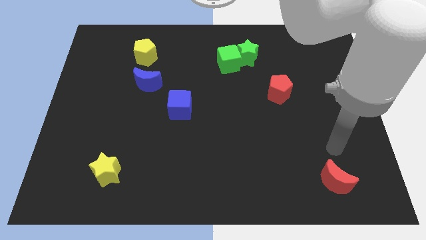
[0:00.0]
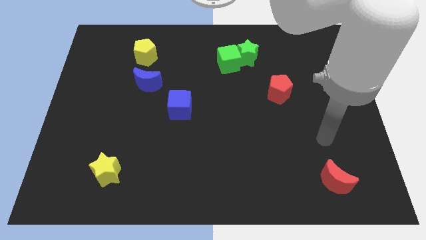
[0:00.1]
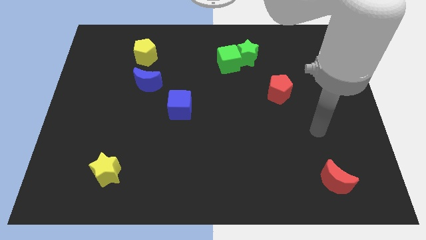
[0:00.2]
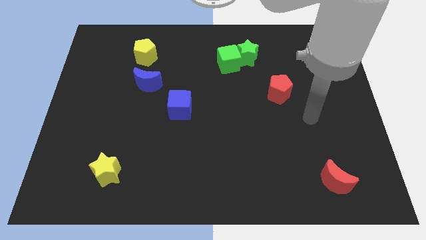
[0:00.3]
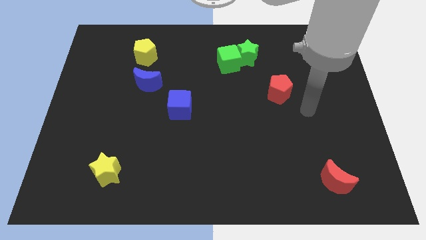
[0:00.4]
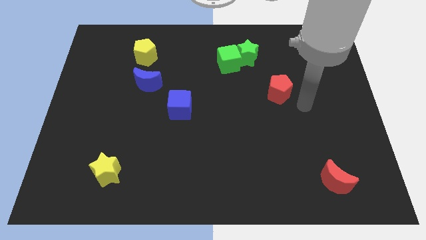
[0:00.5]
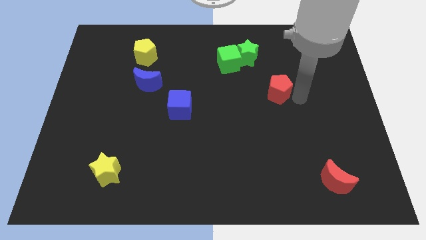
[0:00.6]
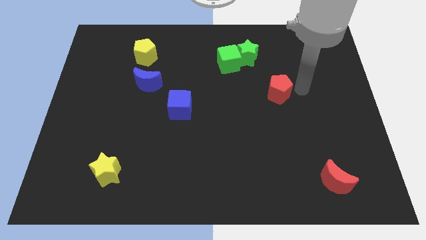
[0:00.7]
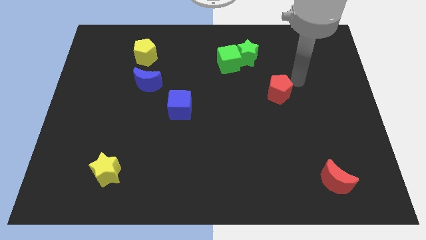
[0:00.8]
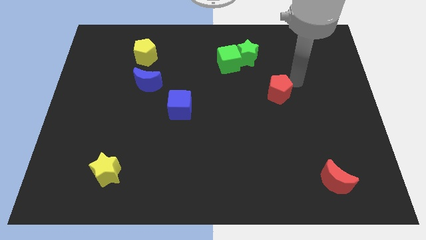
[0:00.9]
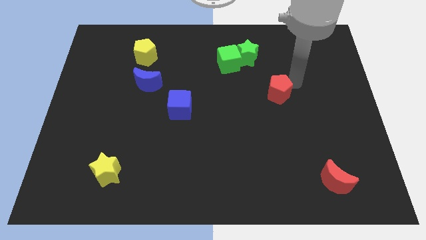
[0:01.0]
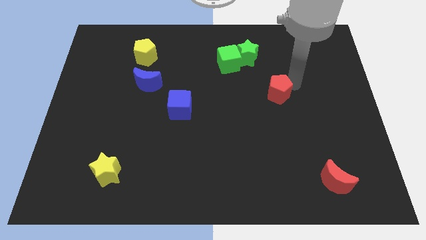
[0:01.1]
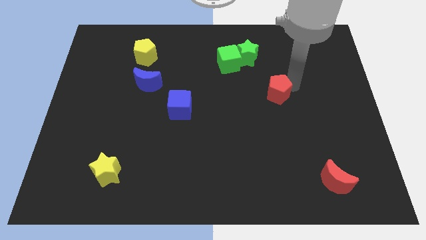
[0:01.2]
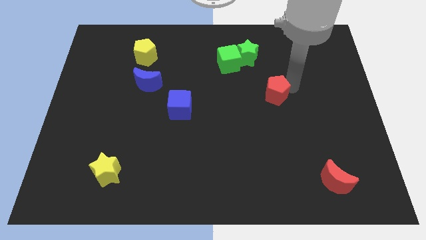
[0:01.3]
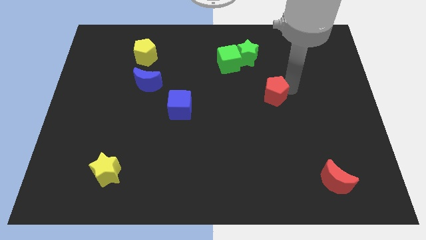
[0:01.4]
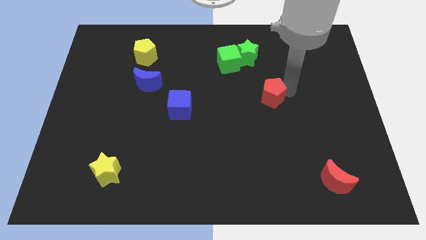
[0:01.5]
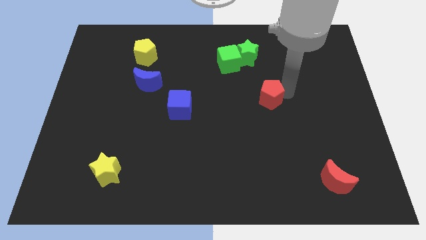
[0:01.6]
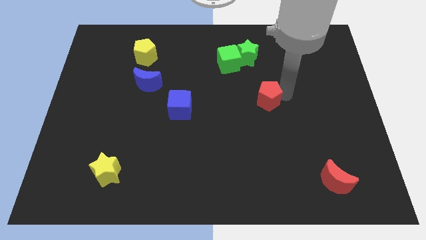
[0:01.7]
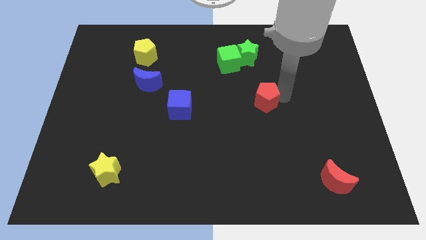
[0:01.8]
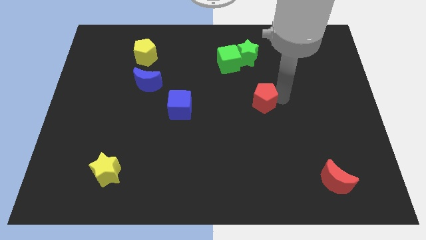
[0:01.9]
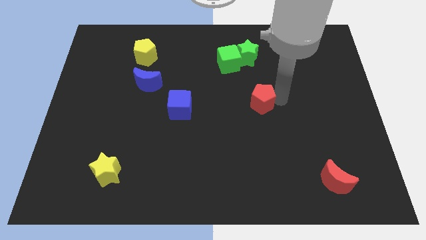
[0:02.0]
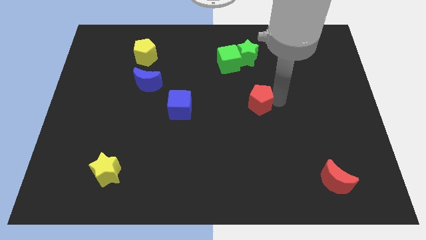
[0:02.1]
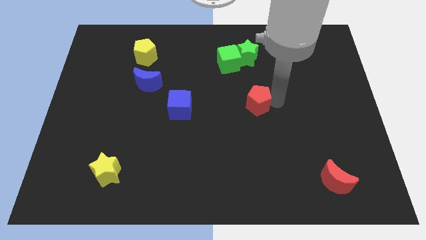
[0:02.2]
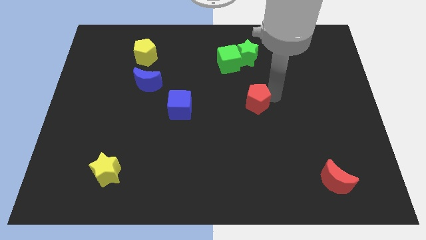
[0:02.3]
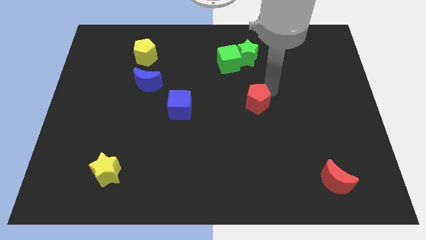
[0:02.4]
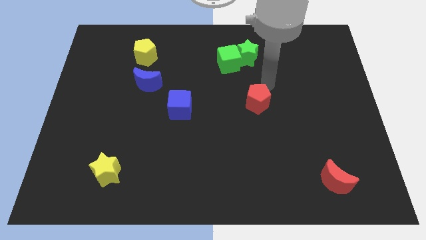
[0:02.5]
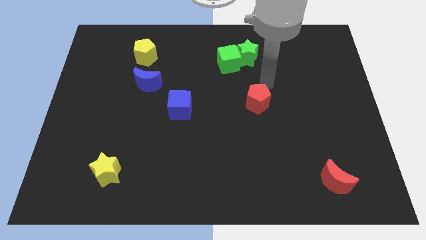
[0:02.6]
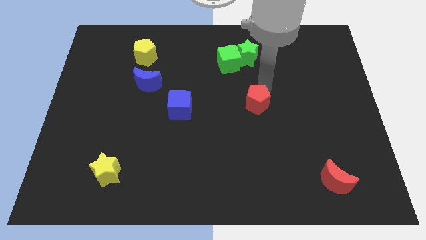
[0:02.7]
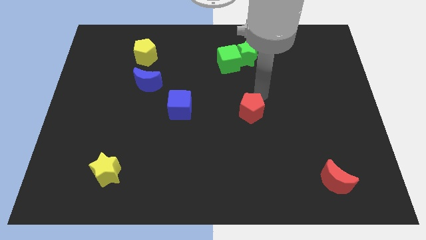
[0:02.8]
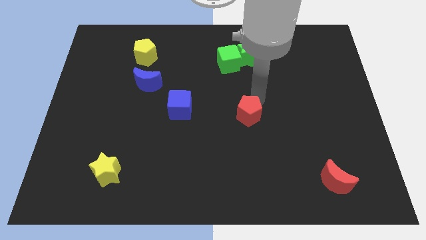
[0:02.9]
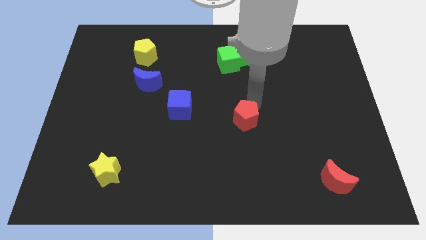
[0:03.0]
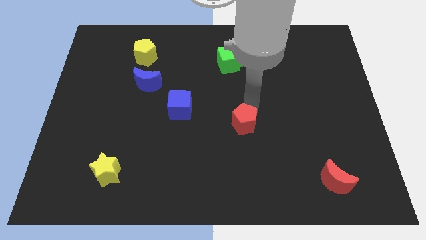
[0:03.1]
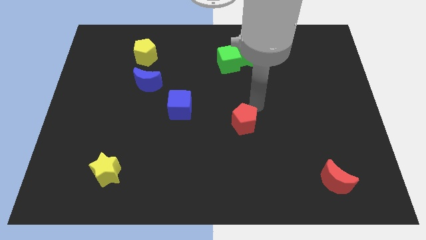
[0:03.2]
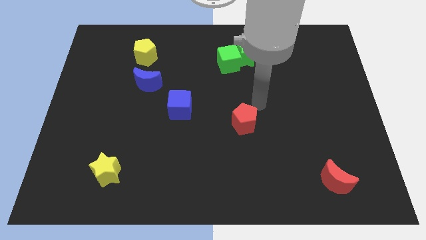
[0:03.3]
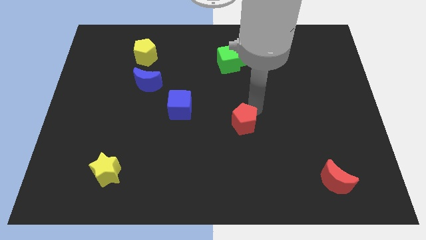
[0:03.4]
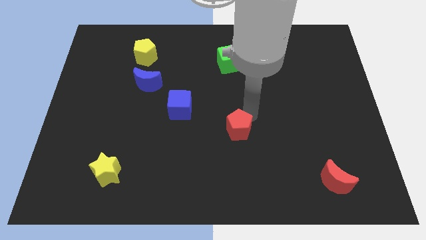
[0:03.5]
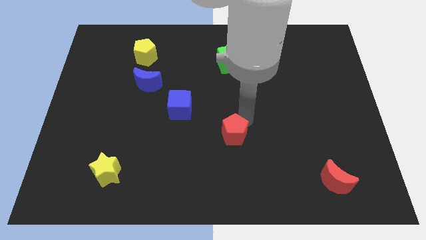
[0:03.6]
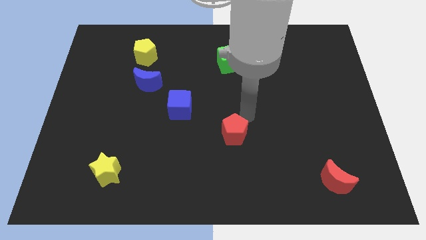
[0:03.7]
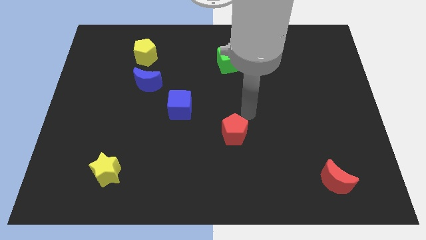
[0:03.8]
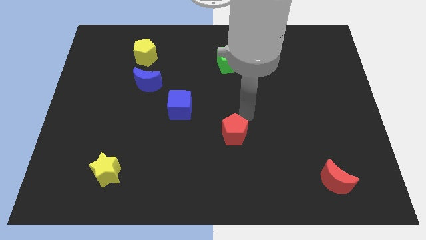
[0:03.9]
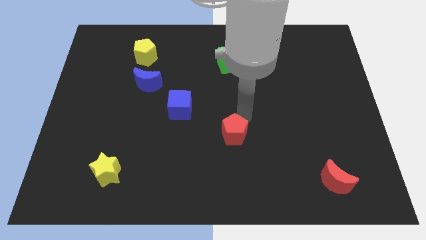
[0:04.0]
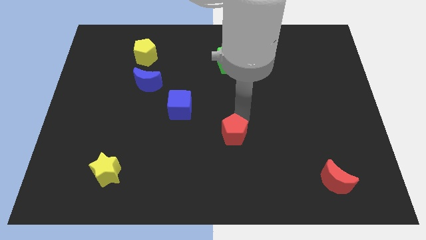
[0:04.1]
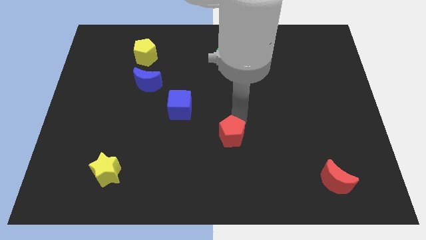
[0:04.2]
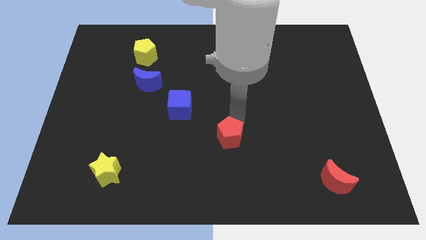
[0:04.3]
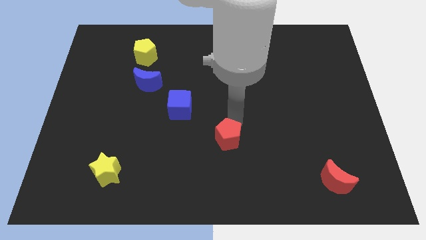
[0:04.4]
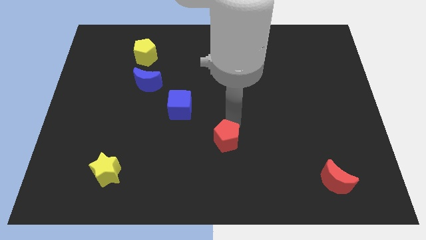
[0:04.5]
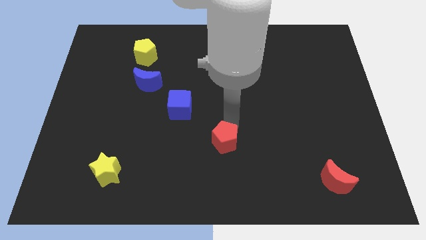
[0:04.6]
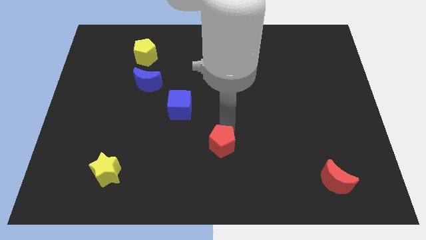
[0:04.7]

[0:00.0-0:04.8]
slide the red pentagon diagonally down and left

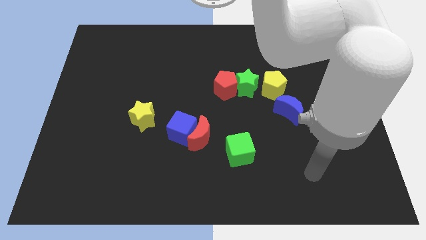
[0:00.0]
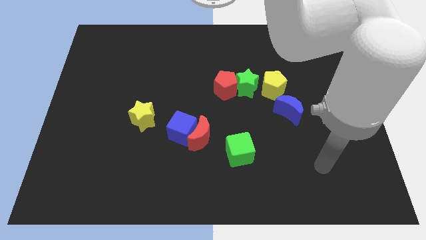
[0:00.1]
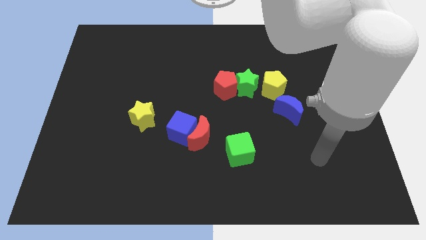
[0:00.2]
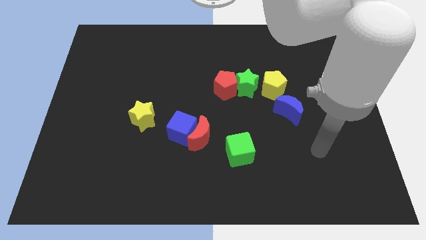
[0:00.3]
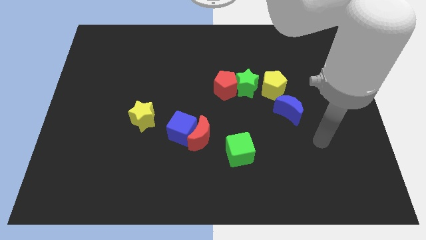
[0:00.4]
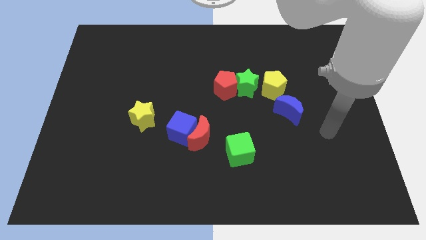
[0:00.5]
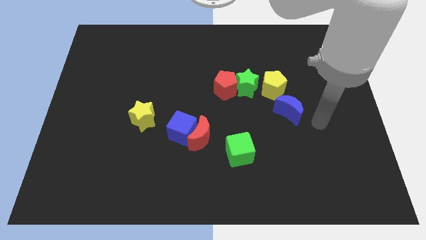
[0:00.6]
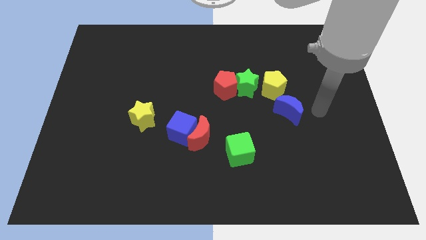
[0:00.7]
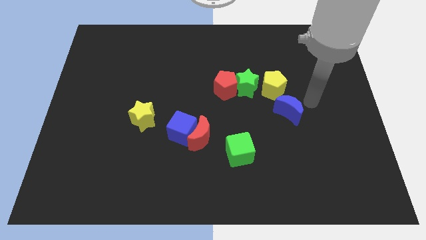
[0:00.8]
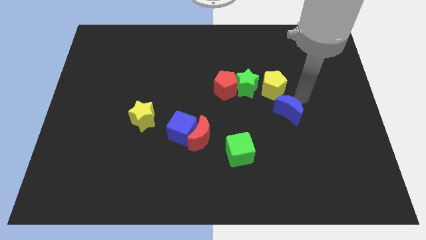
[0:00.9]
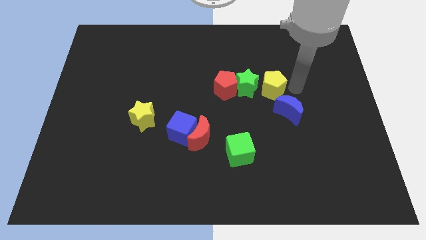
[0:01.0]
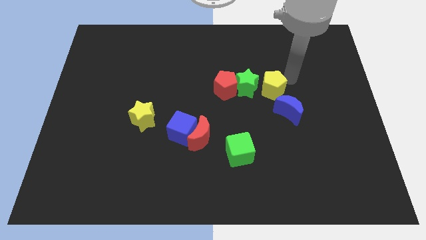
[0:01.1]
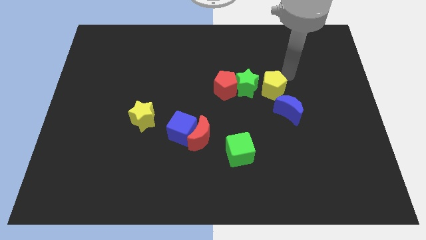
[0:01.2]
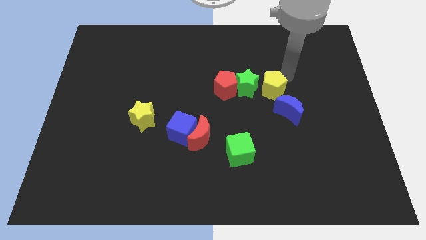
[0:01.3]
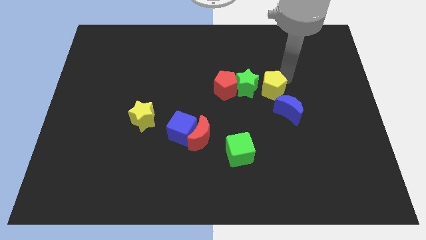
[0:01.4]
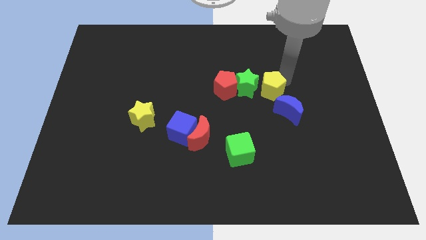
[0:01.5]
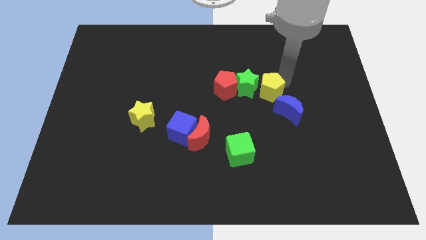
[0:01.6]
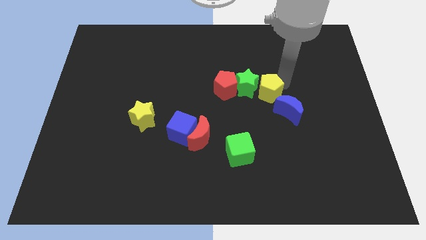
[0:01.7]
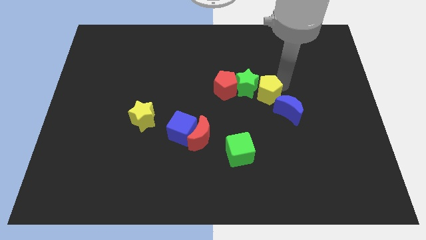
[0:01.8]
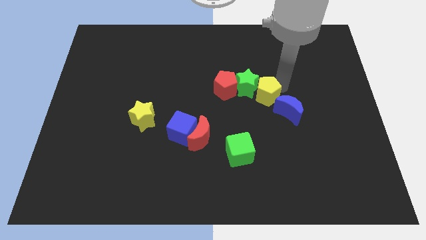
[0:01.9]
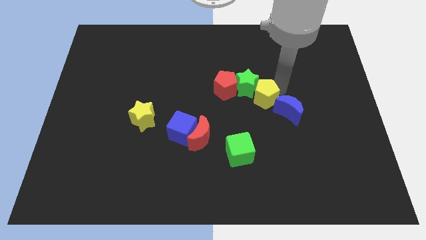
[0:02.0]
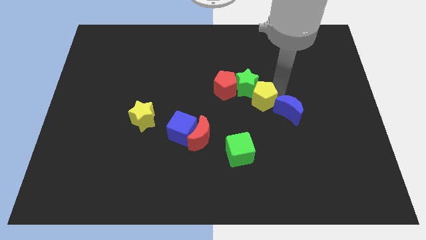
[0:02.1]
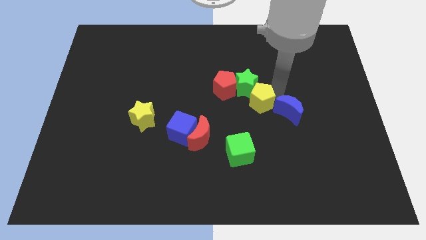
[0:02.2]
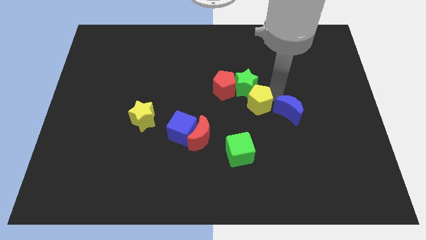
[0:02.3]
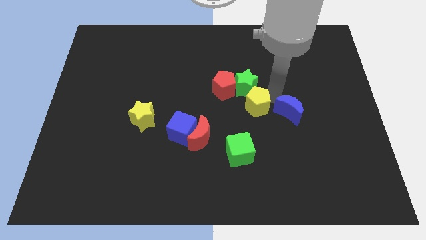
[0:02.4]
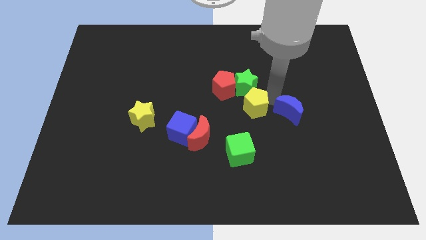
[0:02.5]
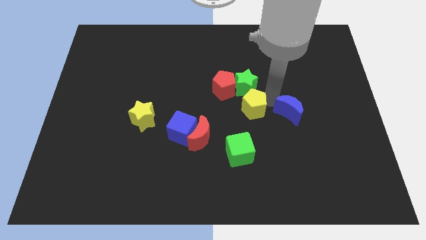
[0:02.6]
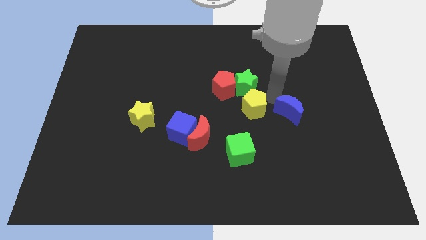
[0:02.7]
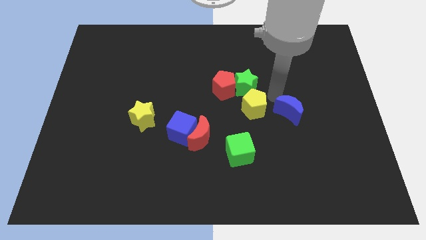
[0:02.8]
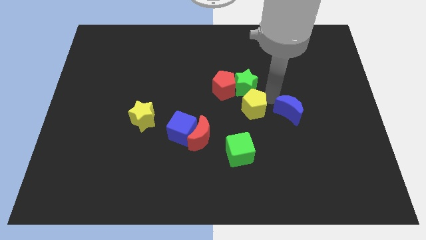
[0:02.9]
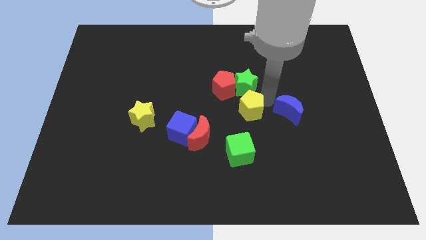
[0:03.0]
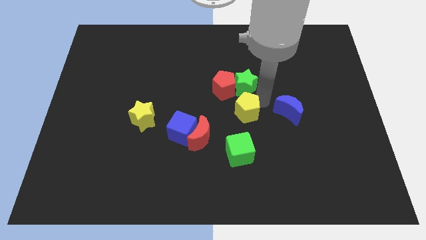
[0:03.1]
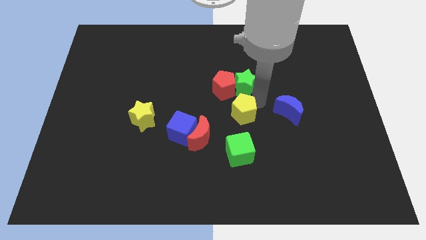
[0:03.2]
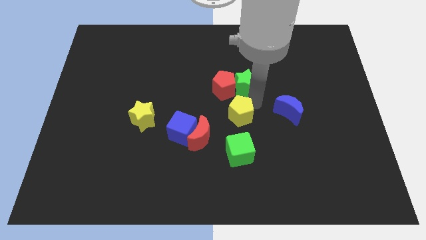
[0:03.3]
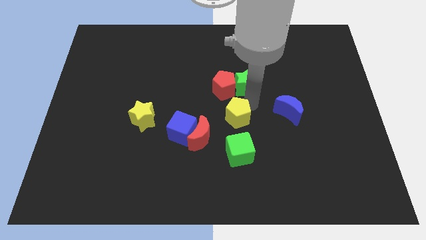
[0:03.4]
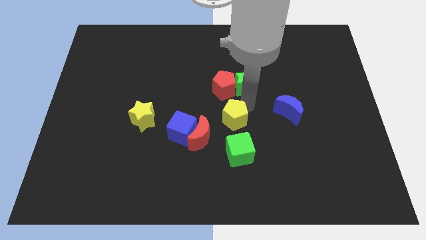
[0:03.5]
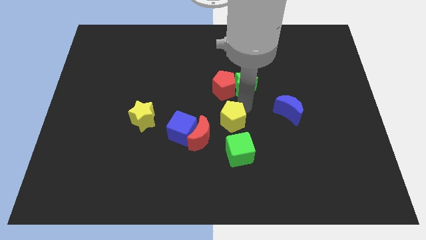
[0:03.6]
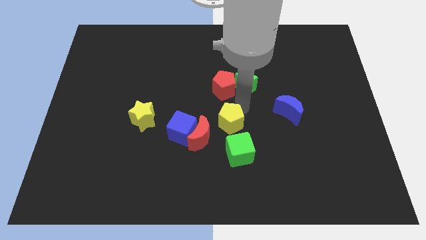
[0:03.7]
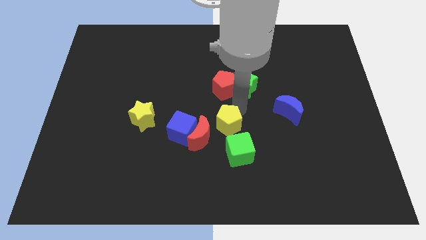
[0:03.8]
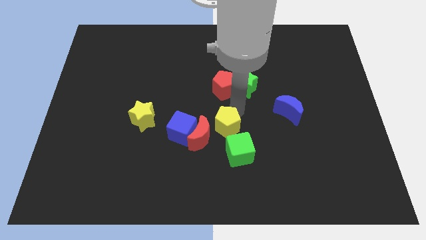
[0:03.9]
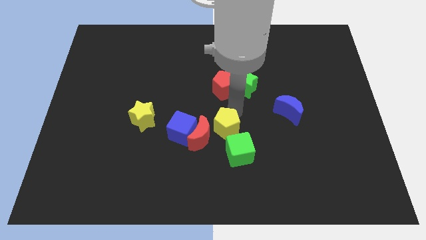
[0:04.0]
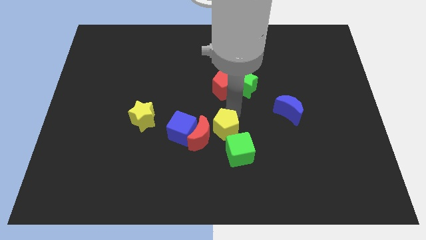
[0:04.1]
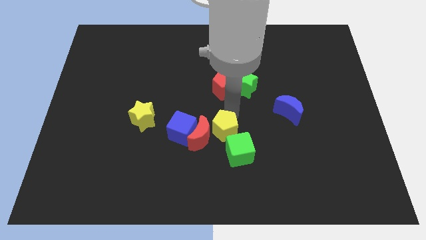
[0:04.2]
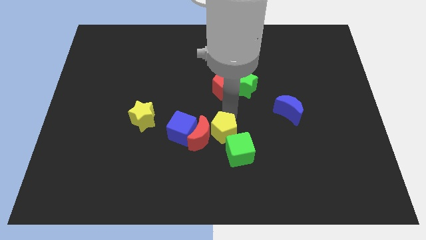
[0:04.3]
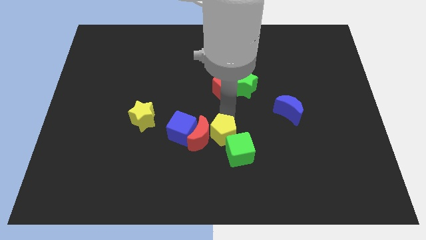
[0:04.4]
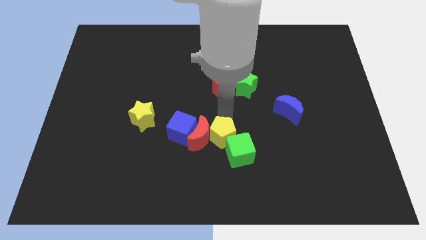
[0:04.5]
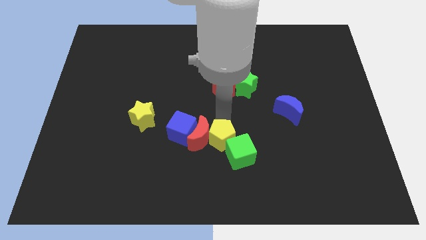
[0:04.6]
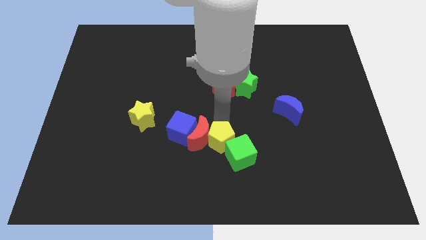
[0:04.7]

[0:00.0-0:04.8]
slide the yellow pentagon down and then to the left
